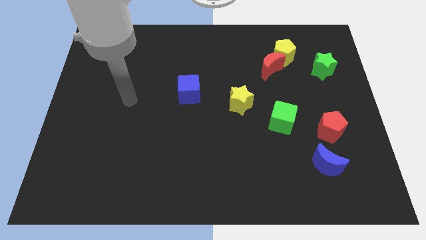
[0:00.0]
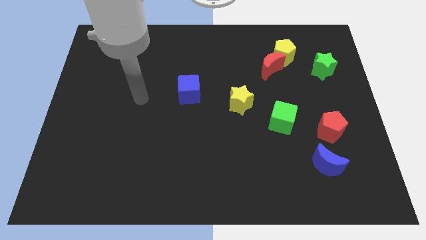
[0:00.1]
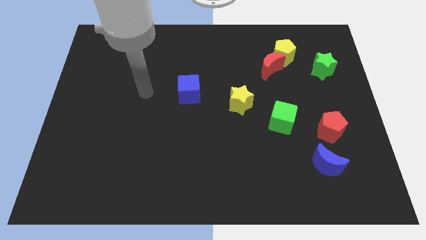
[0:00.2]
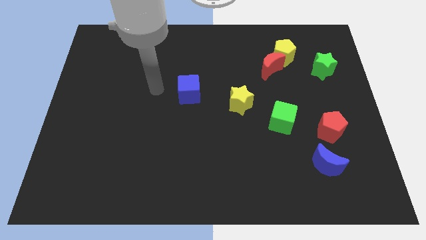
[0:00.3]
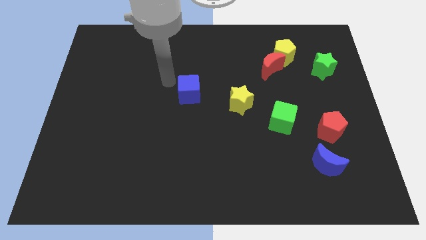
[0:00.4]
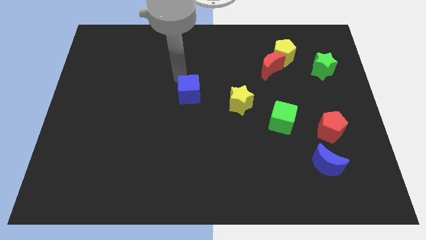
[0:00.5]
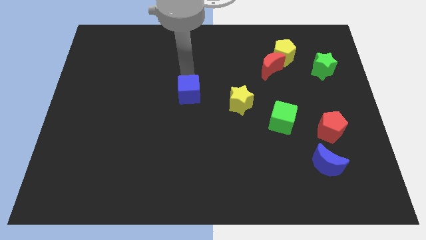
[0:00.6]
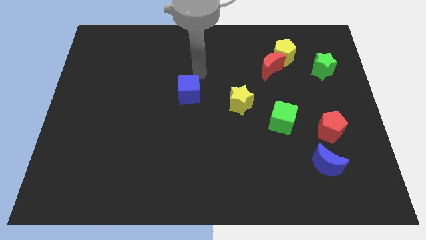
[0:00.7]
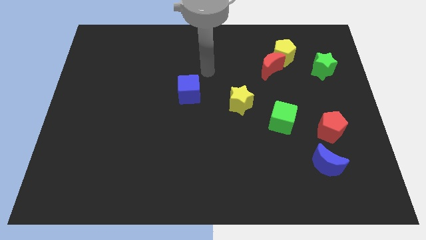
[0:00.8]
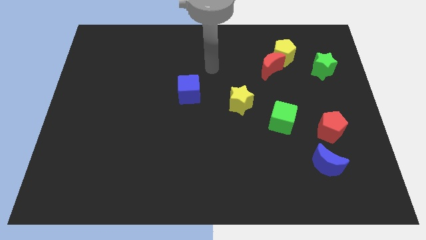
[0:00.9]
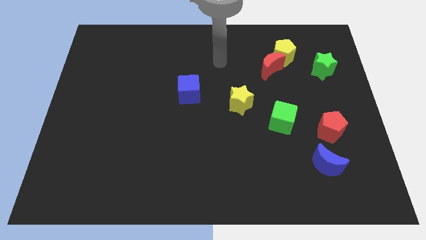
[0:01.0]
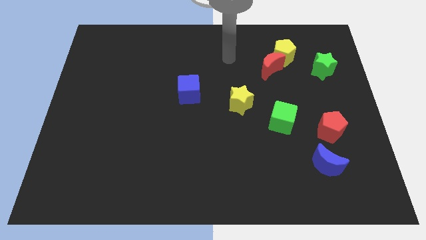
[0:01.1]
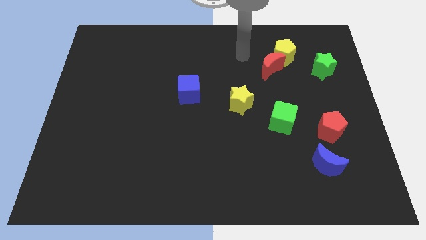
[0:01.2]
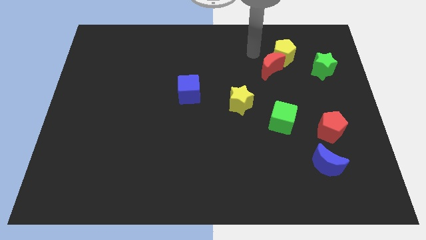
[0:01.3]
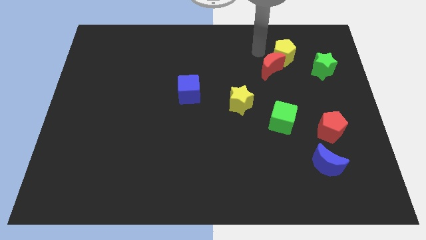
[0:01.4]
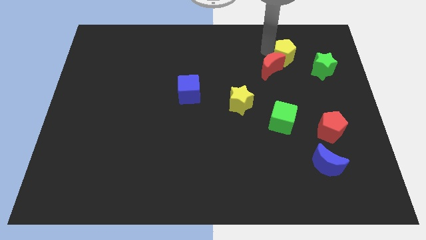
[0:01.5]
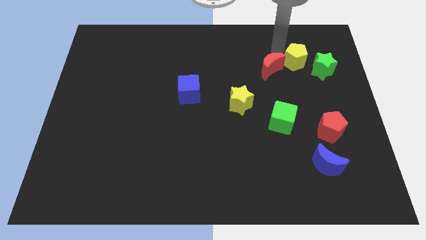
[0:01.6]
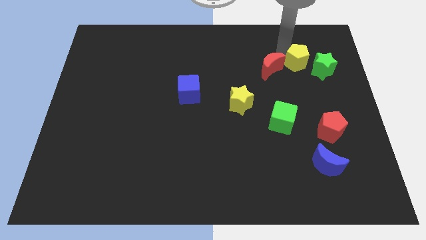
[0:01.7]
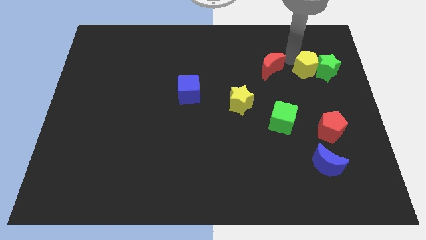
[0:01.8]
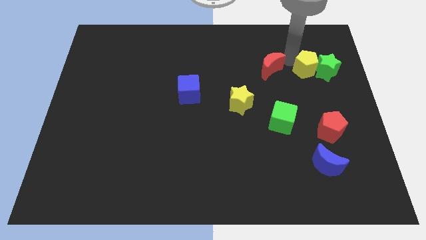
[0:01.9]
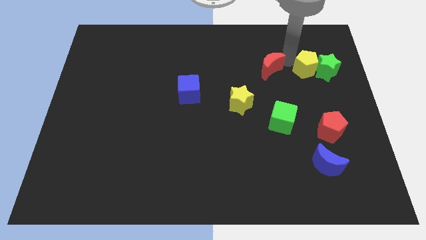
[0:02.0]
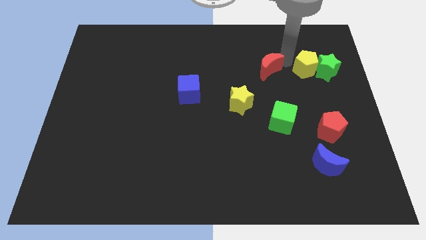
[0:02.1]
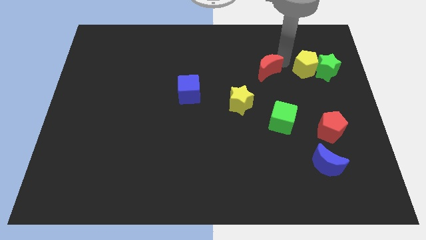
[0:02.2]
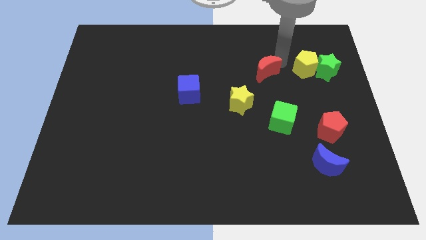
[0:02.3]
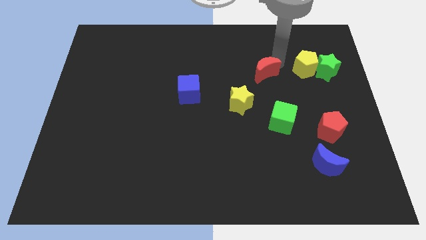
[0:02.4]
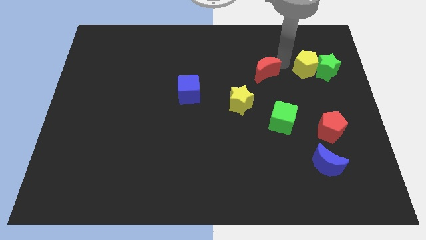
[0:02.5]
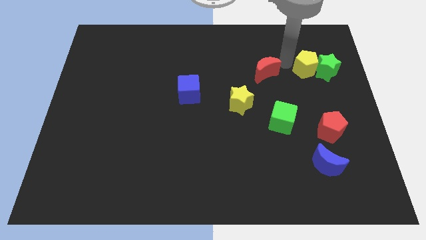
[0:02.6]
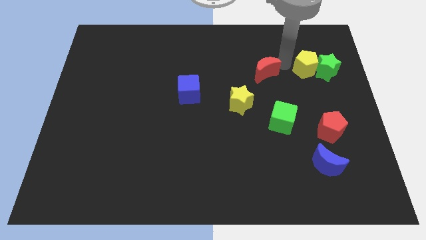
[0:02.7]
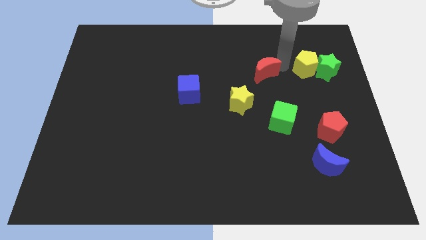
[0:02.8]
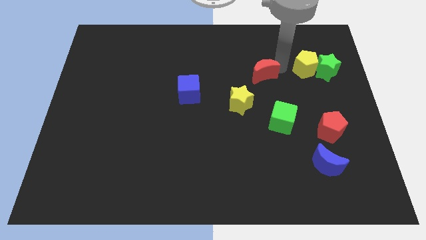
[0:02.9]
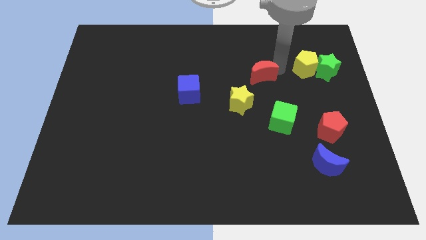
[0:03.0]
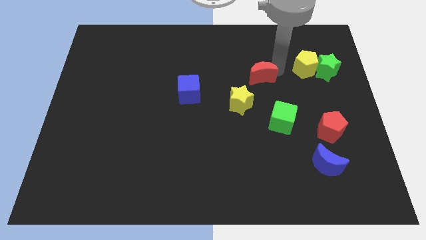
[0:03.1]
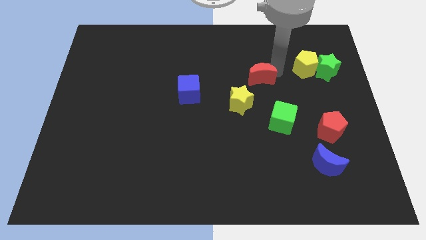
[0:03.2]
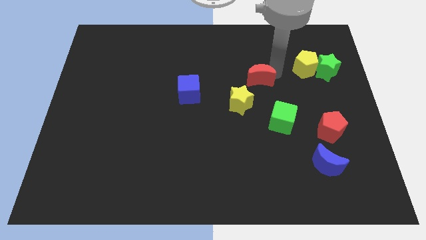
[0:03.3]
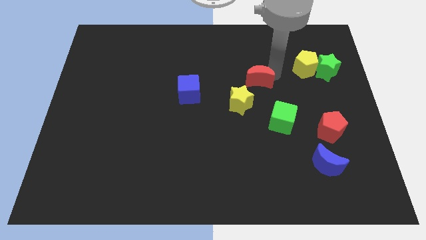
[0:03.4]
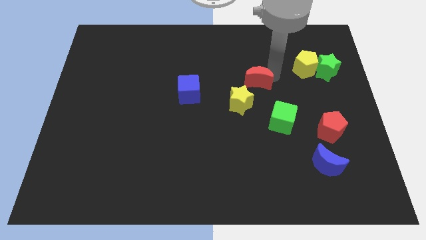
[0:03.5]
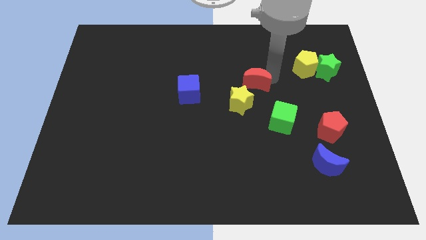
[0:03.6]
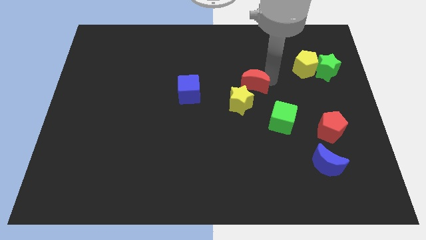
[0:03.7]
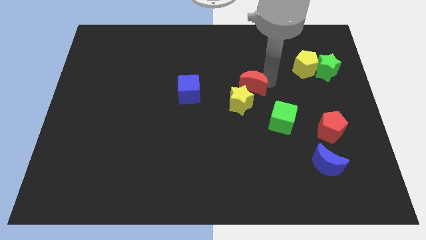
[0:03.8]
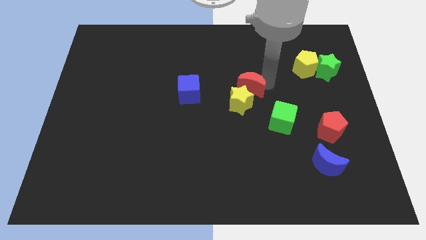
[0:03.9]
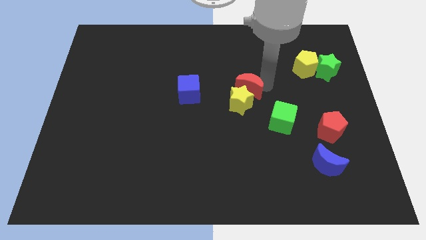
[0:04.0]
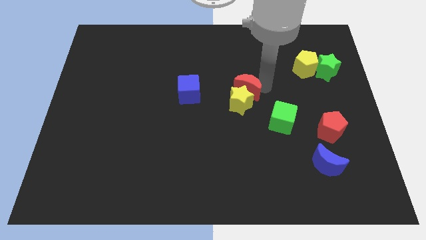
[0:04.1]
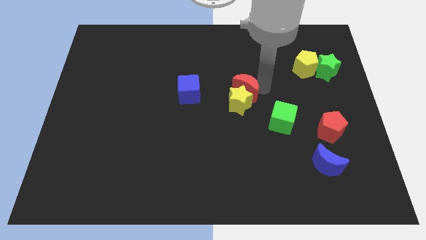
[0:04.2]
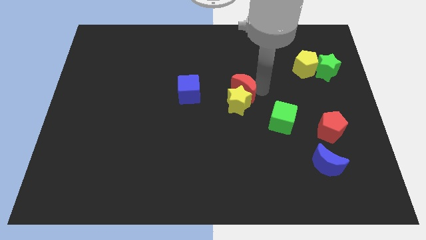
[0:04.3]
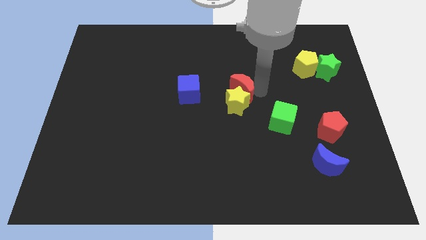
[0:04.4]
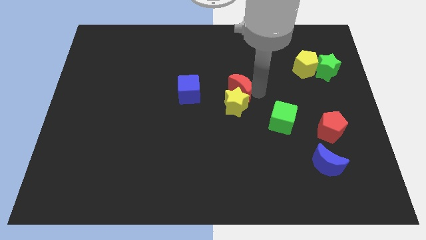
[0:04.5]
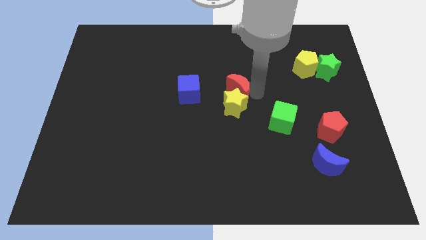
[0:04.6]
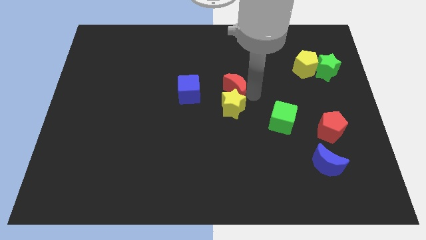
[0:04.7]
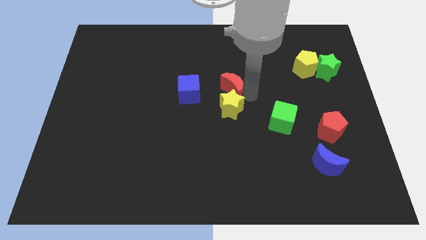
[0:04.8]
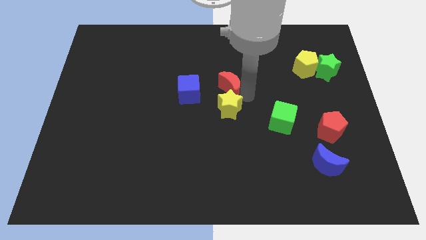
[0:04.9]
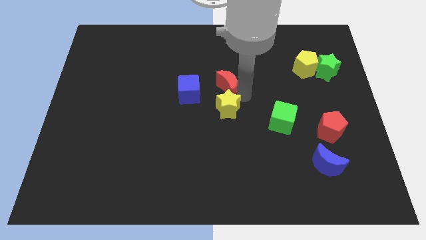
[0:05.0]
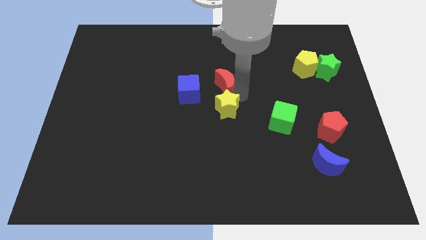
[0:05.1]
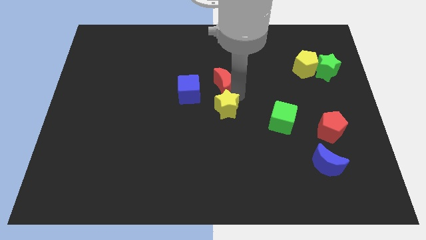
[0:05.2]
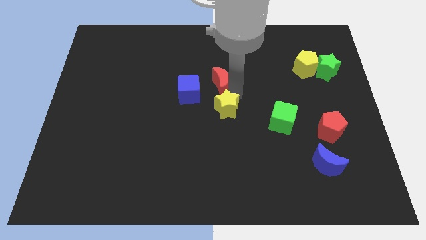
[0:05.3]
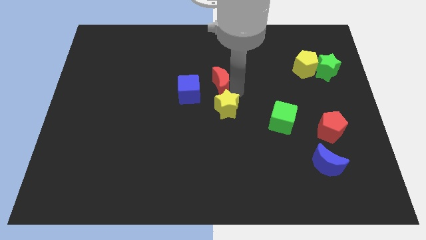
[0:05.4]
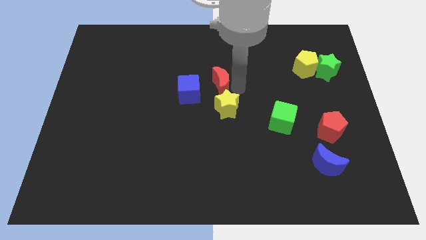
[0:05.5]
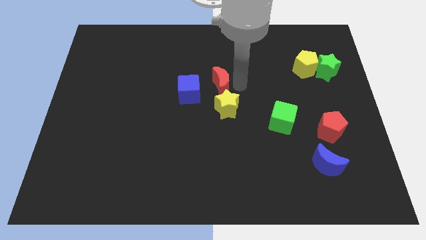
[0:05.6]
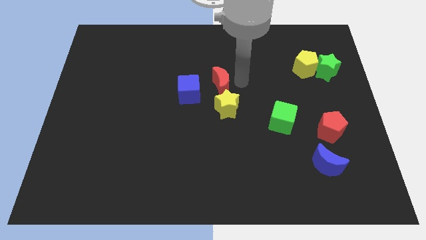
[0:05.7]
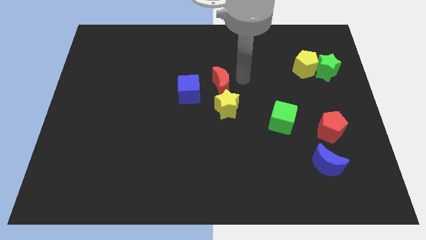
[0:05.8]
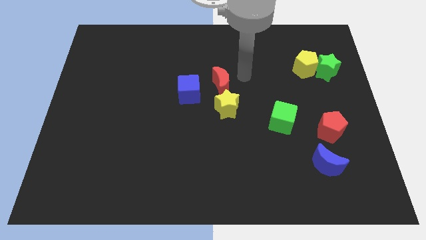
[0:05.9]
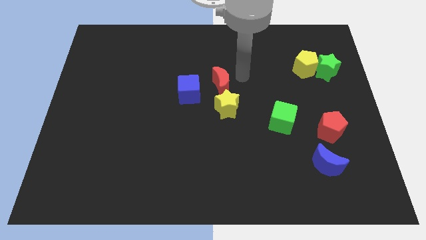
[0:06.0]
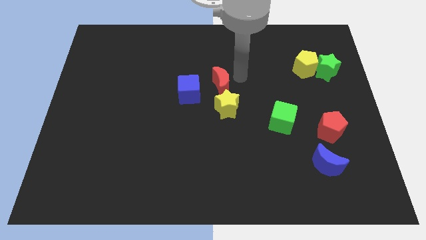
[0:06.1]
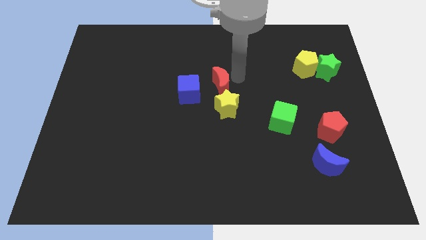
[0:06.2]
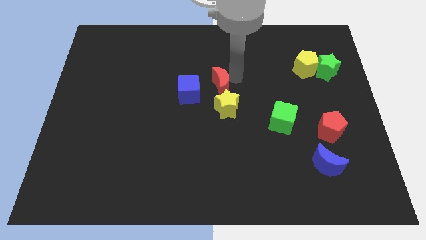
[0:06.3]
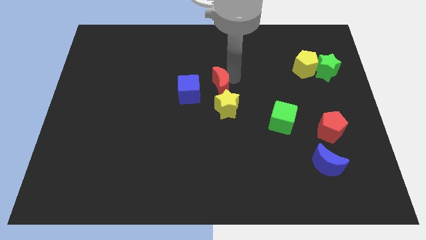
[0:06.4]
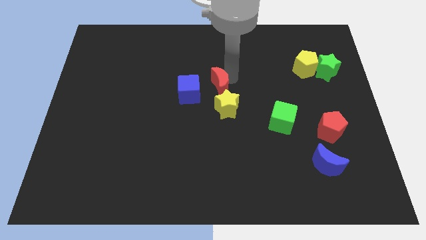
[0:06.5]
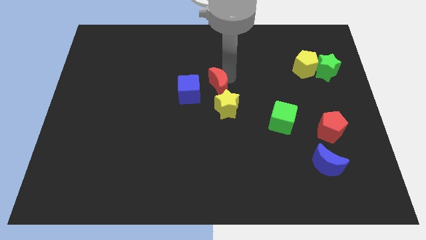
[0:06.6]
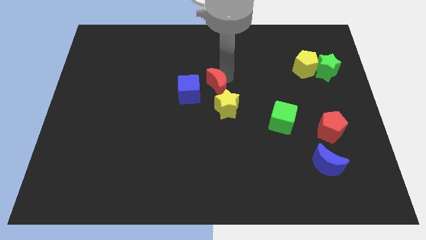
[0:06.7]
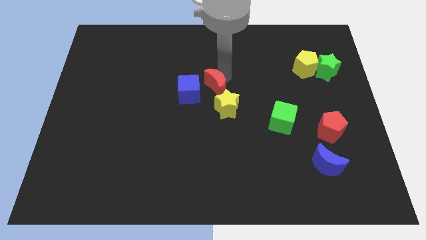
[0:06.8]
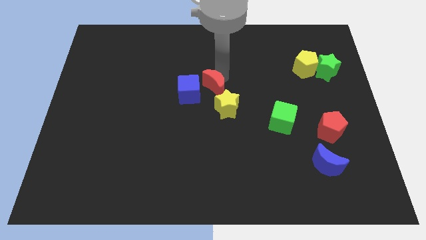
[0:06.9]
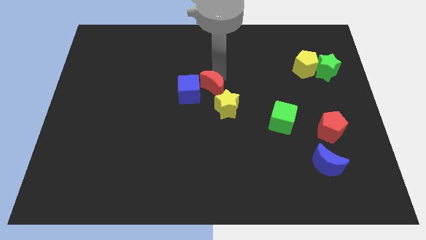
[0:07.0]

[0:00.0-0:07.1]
put the red moon towards the blue cube

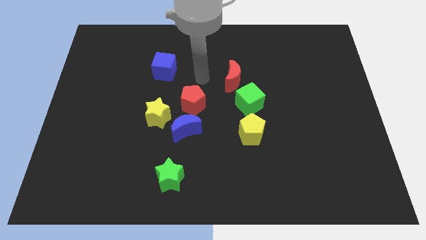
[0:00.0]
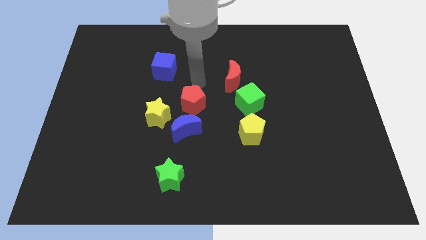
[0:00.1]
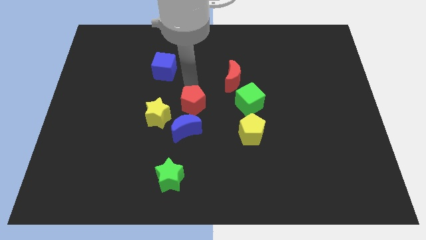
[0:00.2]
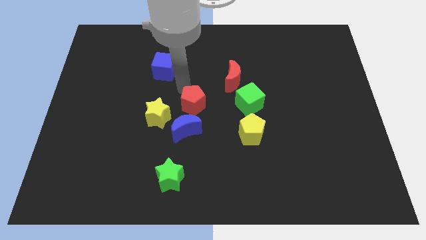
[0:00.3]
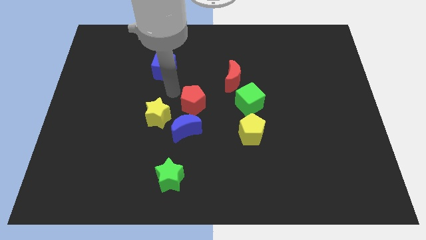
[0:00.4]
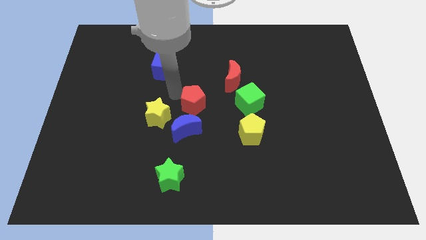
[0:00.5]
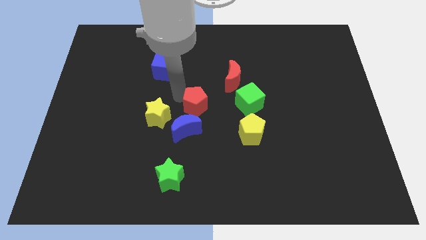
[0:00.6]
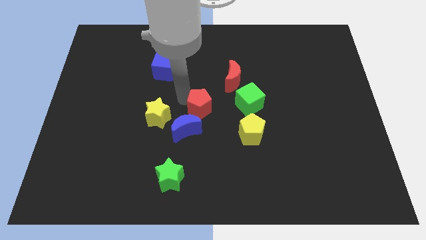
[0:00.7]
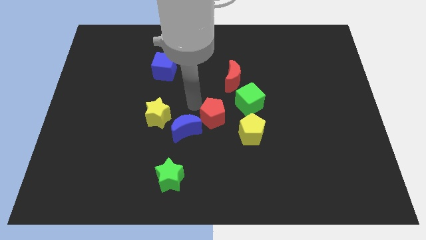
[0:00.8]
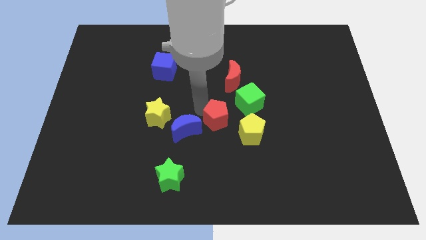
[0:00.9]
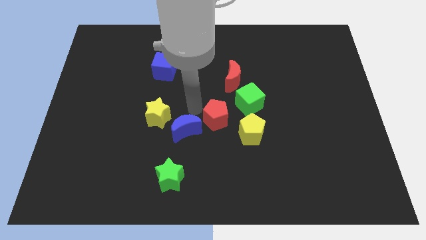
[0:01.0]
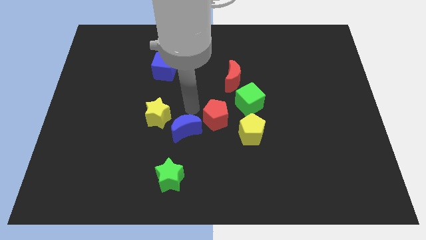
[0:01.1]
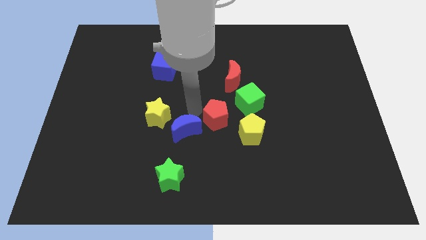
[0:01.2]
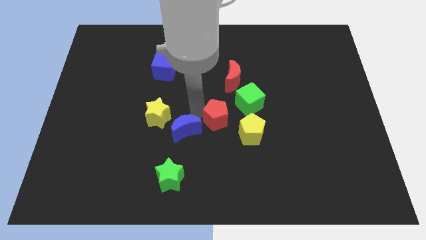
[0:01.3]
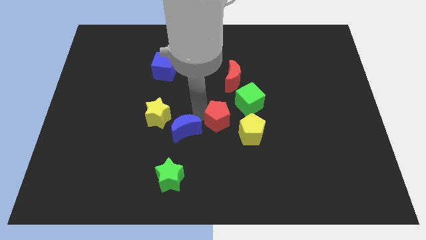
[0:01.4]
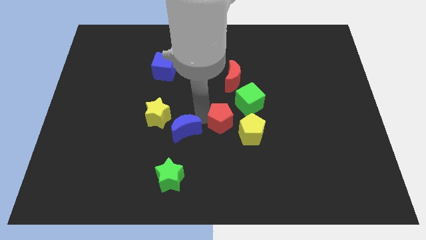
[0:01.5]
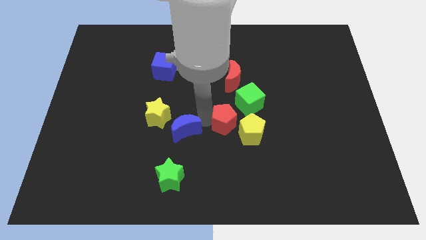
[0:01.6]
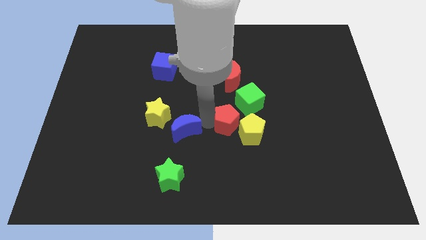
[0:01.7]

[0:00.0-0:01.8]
put the red pentagon to the yellow pentagon
